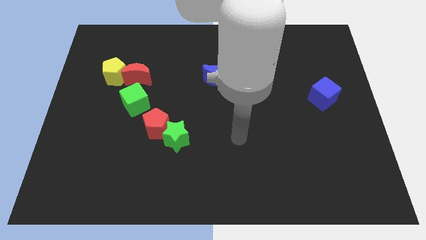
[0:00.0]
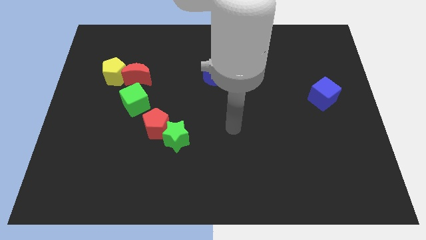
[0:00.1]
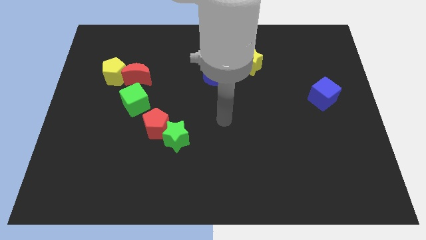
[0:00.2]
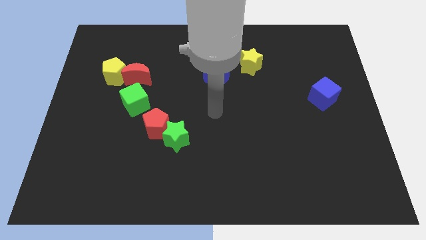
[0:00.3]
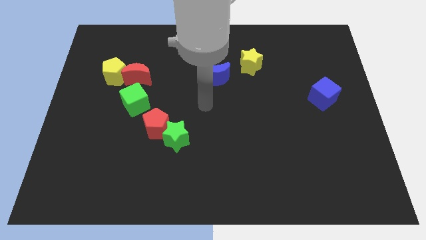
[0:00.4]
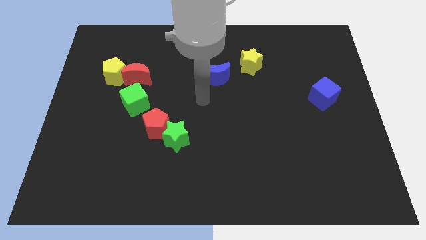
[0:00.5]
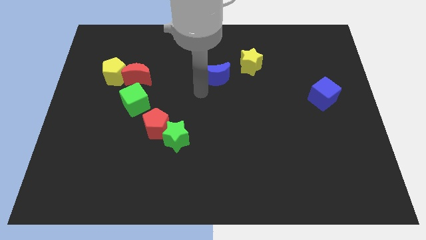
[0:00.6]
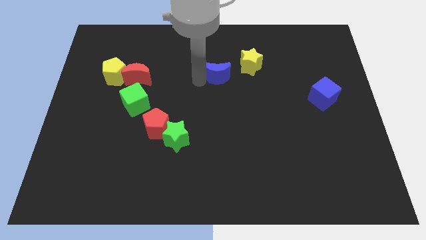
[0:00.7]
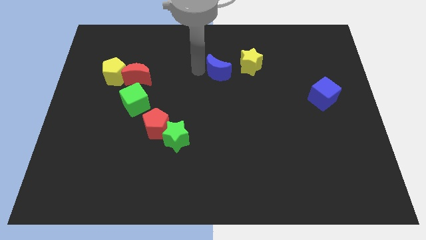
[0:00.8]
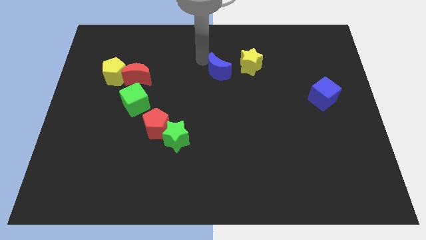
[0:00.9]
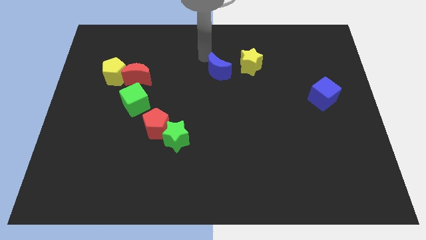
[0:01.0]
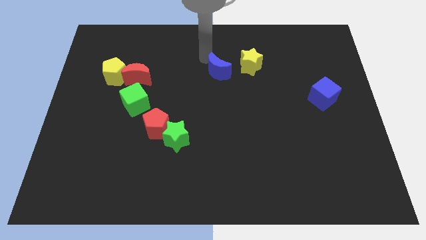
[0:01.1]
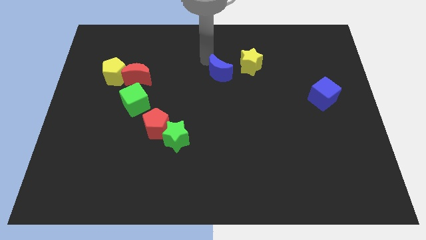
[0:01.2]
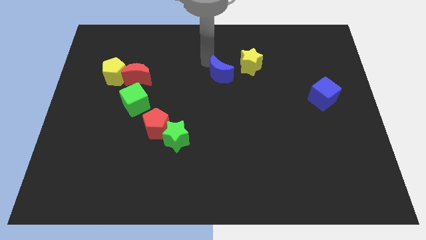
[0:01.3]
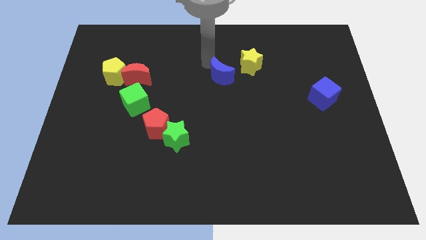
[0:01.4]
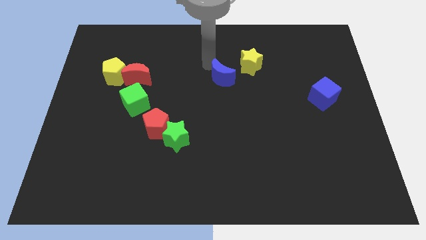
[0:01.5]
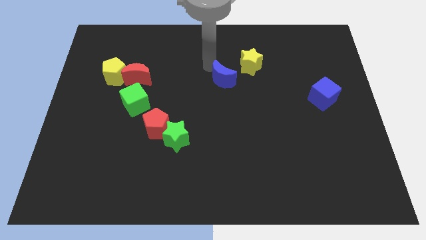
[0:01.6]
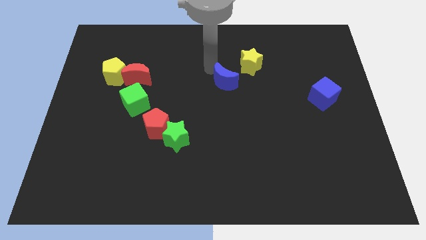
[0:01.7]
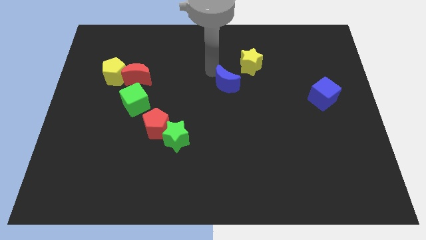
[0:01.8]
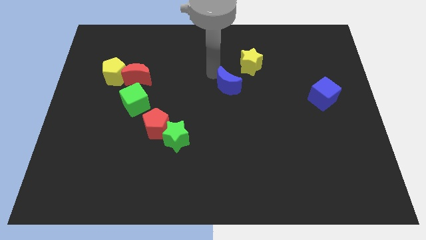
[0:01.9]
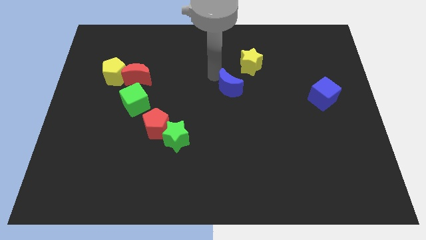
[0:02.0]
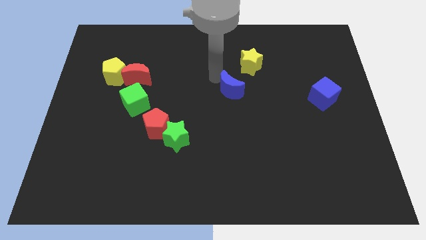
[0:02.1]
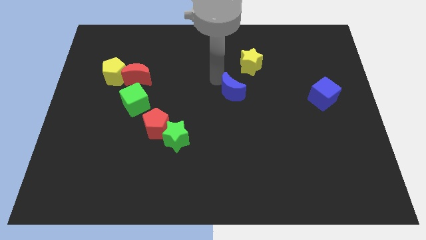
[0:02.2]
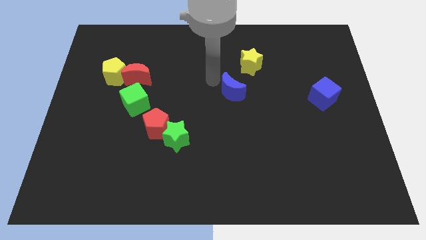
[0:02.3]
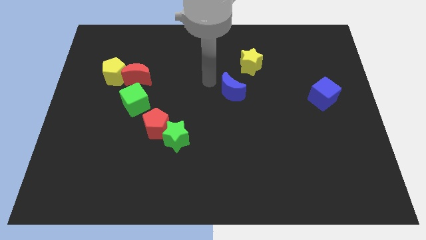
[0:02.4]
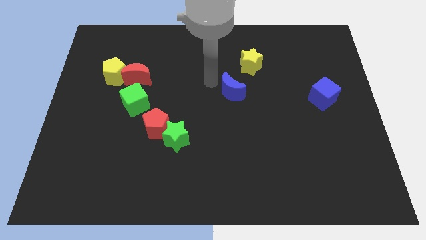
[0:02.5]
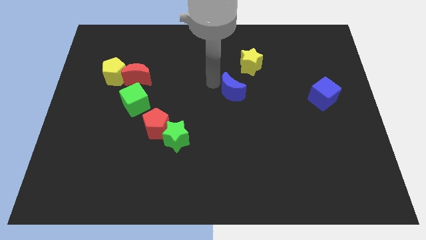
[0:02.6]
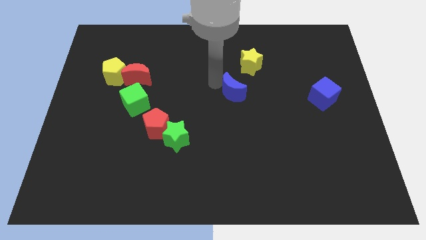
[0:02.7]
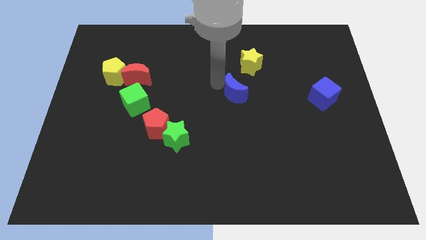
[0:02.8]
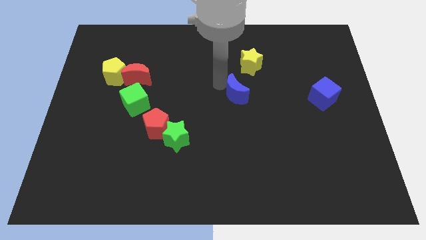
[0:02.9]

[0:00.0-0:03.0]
slide the blue moon down and right slightly

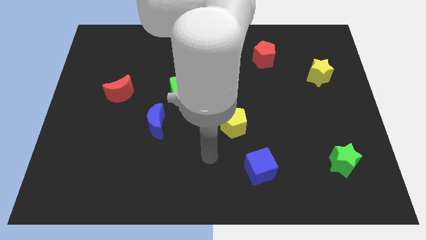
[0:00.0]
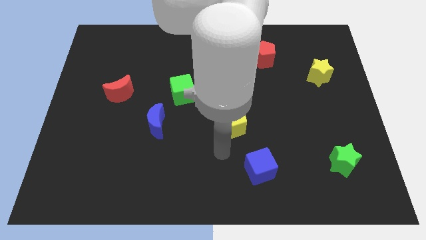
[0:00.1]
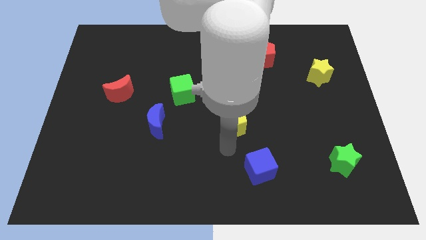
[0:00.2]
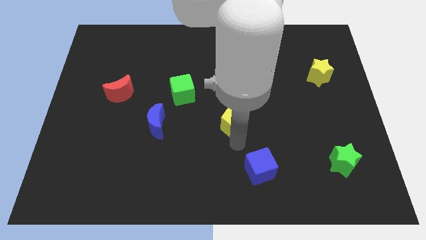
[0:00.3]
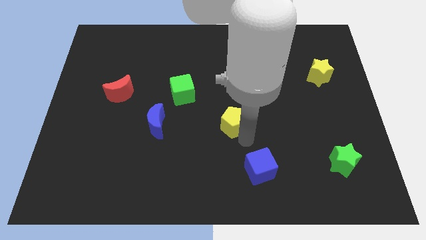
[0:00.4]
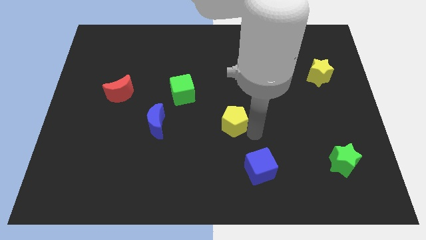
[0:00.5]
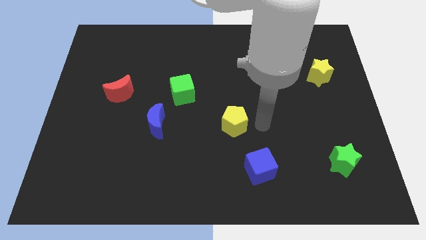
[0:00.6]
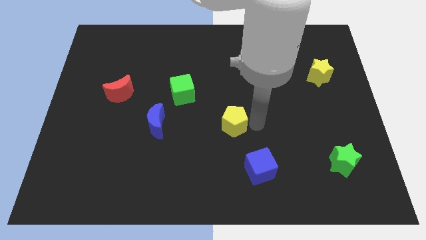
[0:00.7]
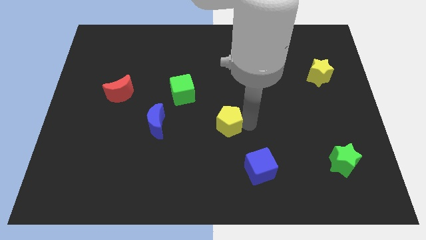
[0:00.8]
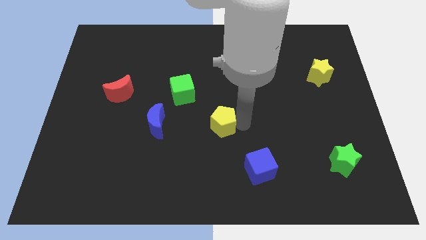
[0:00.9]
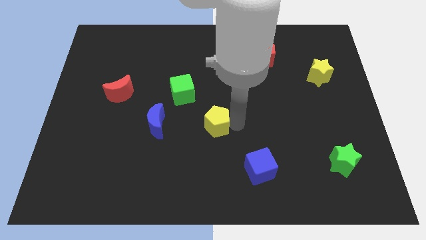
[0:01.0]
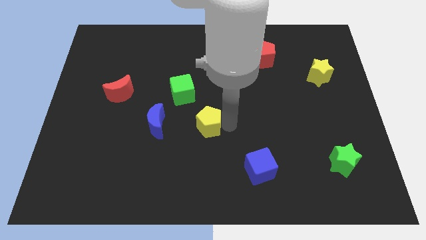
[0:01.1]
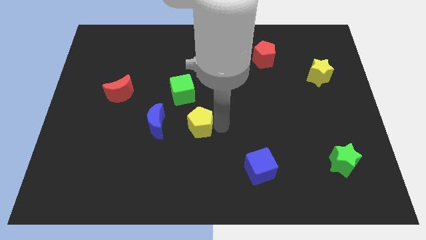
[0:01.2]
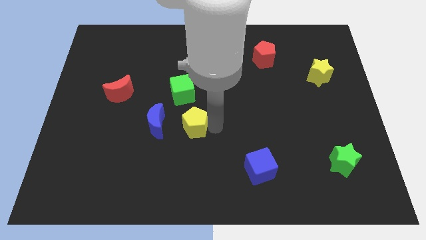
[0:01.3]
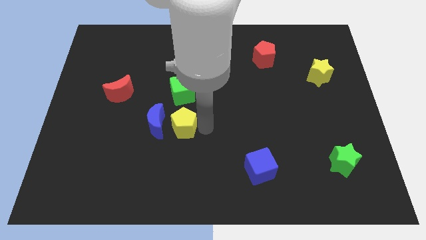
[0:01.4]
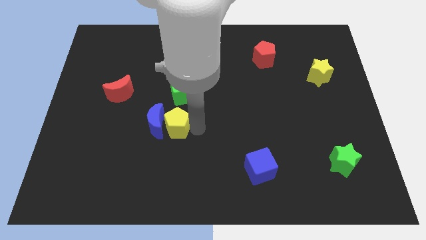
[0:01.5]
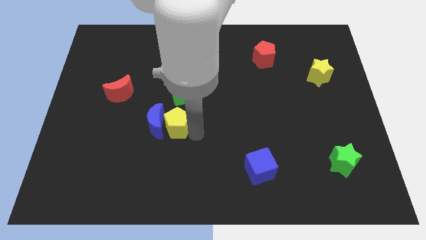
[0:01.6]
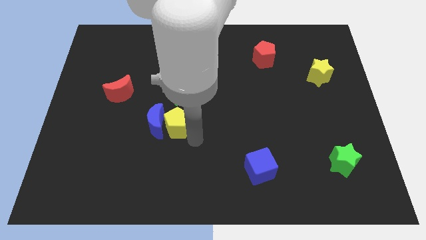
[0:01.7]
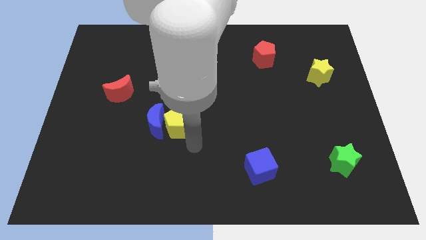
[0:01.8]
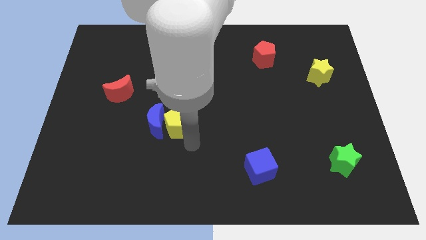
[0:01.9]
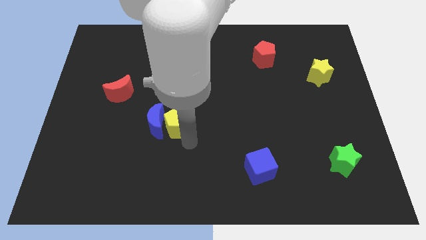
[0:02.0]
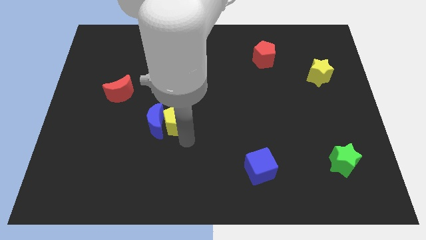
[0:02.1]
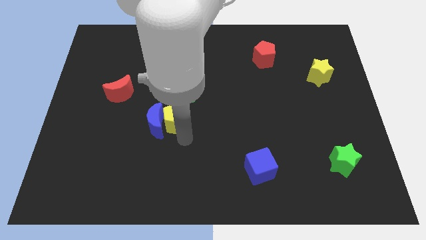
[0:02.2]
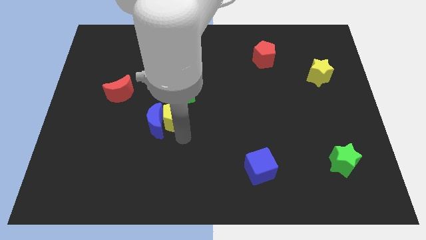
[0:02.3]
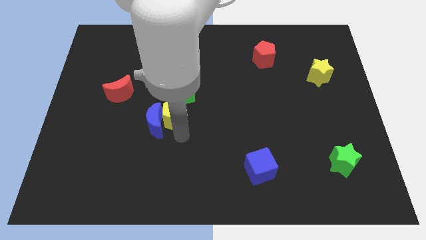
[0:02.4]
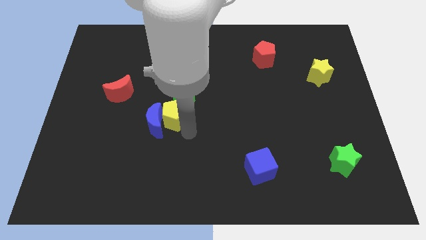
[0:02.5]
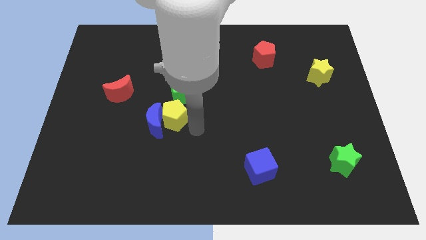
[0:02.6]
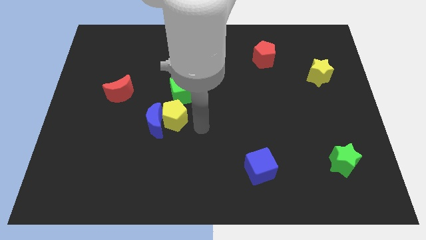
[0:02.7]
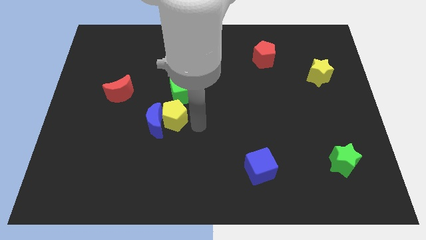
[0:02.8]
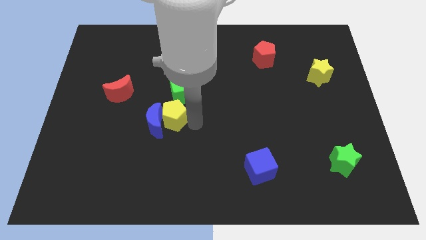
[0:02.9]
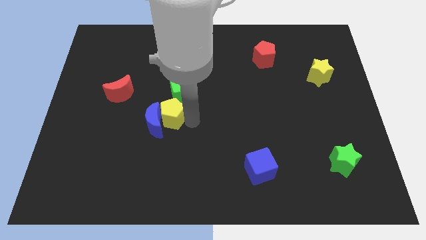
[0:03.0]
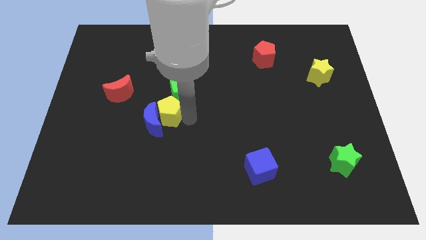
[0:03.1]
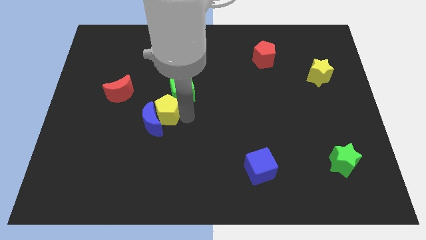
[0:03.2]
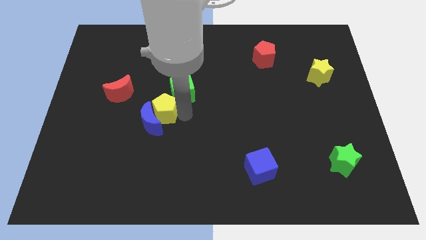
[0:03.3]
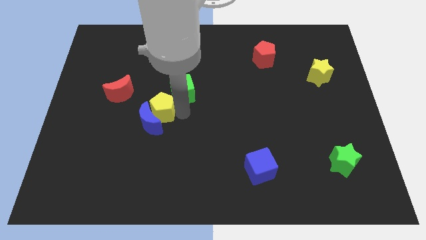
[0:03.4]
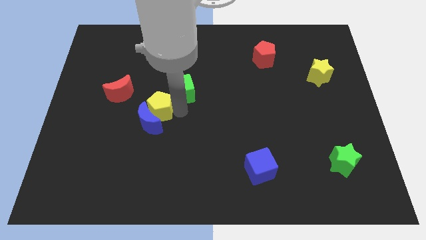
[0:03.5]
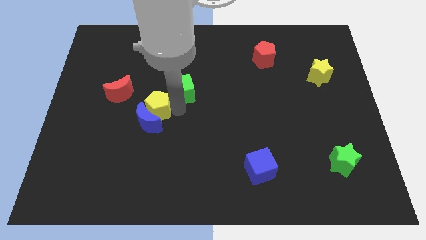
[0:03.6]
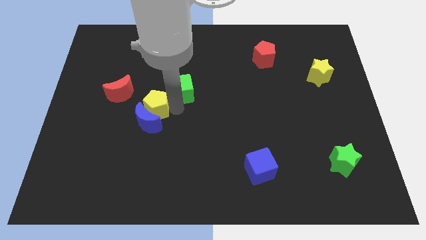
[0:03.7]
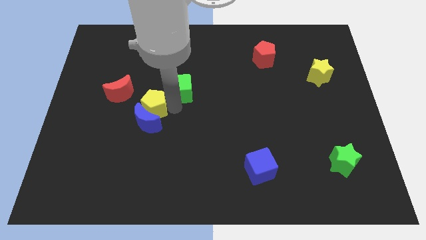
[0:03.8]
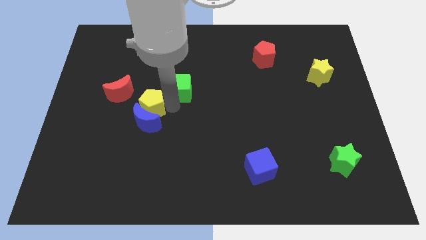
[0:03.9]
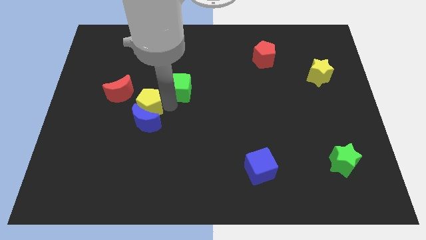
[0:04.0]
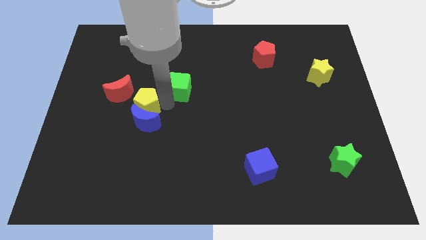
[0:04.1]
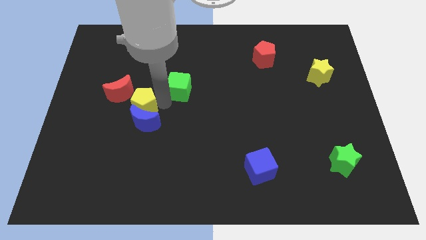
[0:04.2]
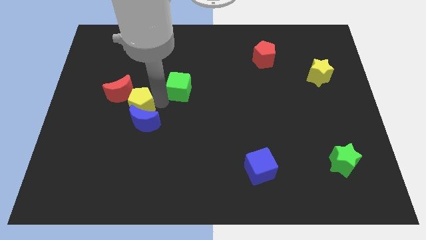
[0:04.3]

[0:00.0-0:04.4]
move the yellow pentagon to the left

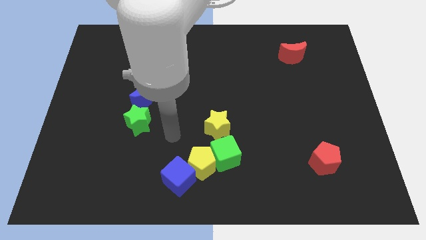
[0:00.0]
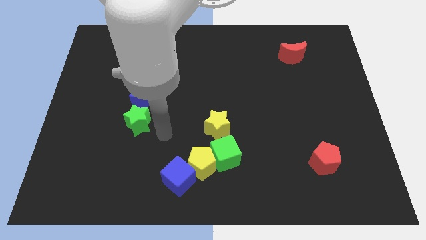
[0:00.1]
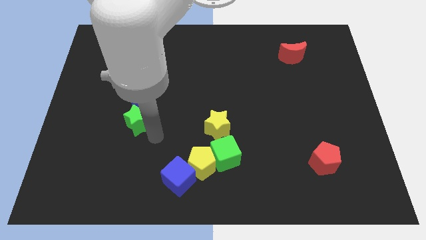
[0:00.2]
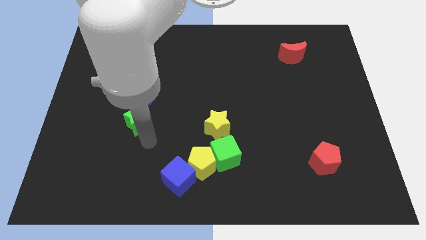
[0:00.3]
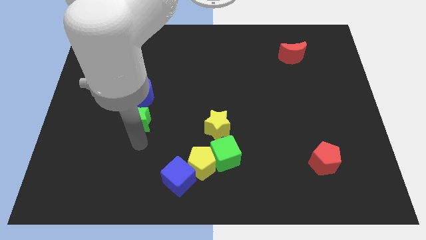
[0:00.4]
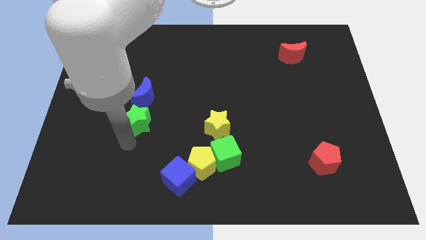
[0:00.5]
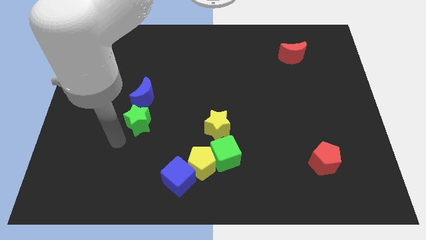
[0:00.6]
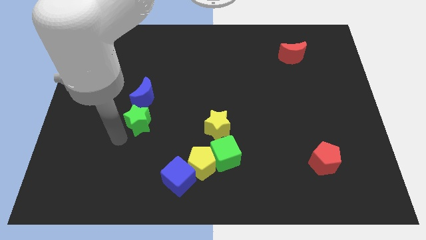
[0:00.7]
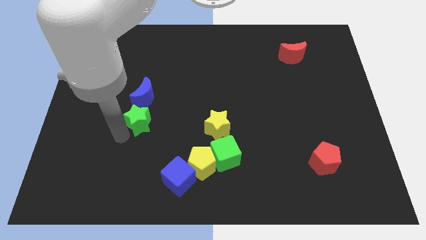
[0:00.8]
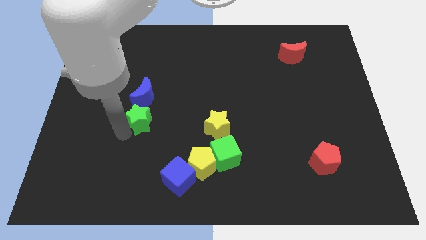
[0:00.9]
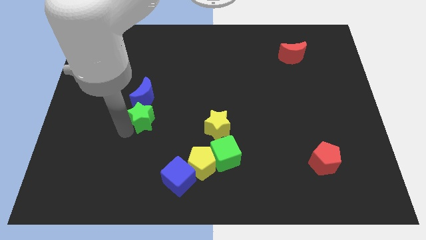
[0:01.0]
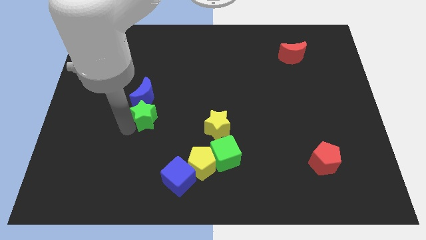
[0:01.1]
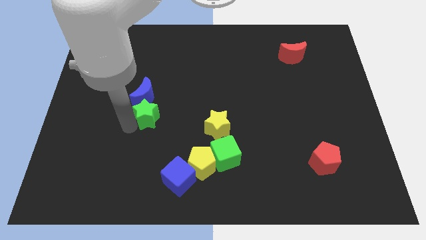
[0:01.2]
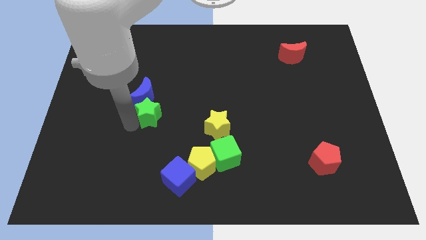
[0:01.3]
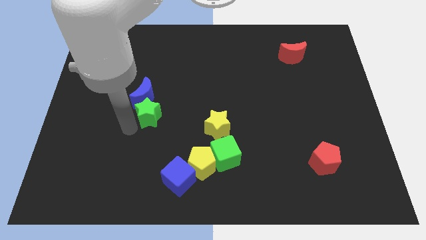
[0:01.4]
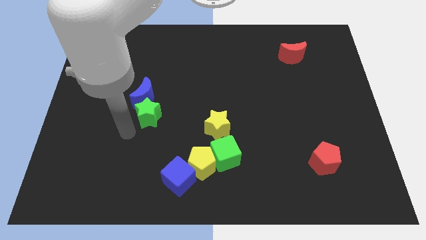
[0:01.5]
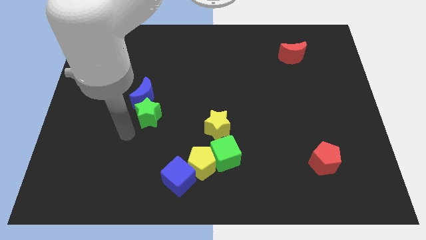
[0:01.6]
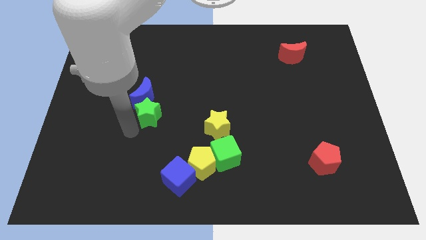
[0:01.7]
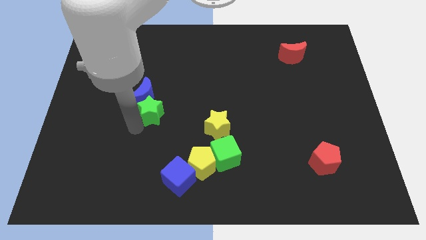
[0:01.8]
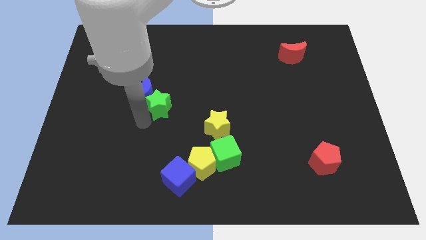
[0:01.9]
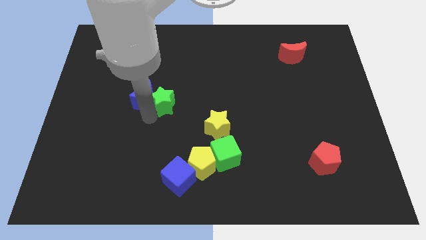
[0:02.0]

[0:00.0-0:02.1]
slightly slide the green star up and to the right diagonally
